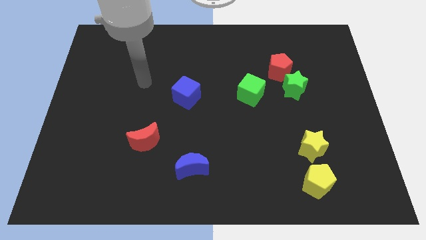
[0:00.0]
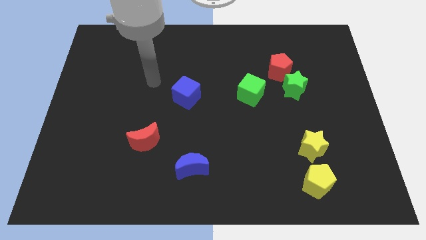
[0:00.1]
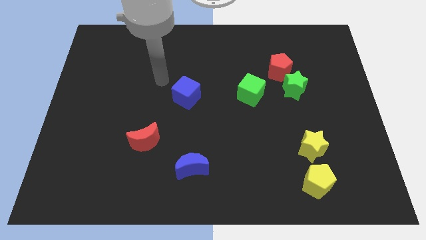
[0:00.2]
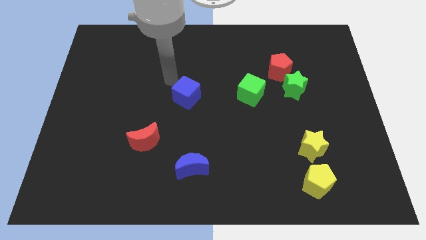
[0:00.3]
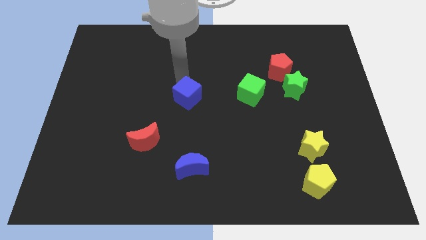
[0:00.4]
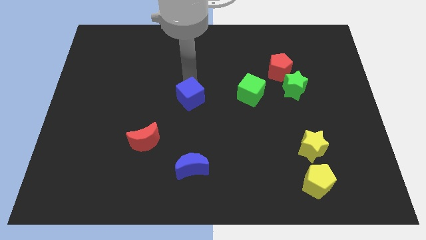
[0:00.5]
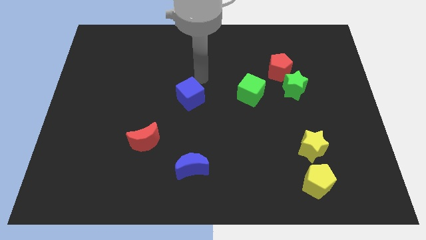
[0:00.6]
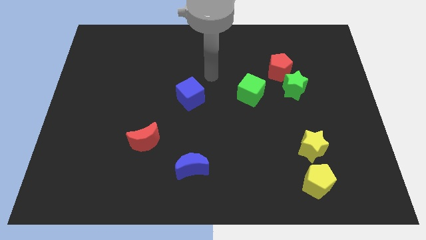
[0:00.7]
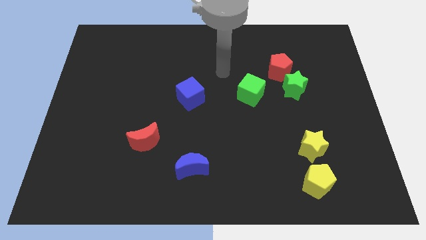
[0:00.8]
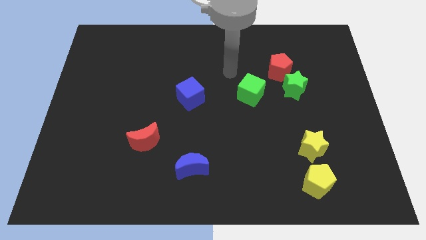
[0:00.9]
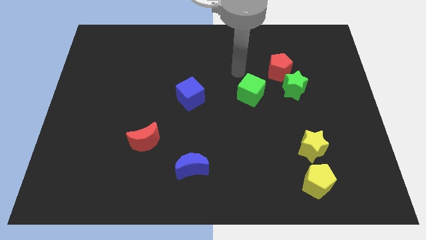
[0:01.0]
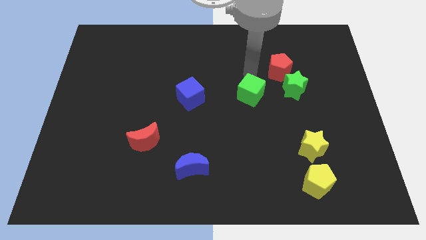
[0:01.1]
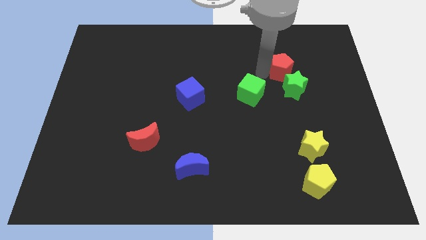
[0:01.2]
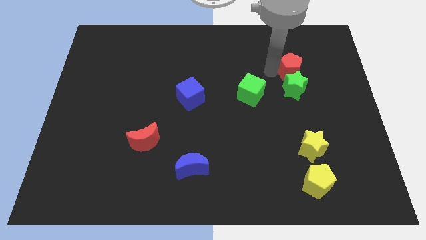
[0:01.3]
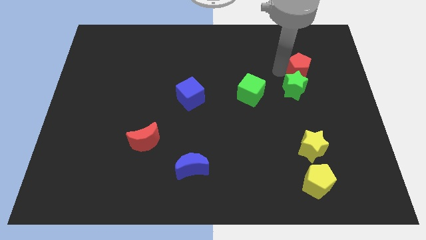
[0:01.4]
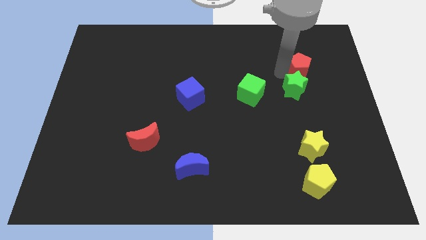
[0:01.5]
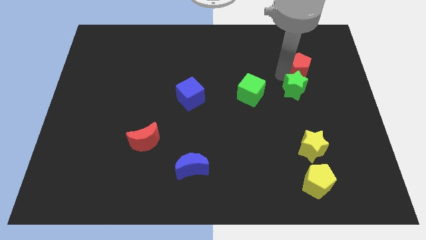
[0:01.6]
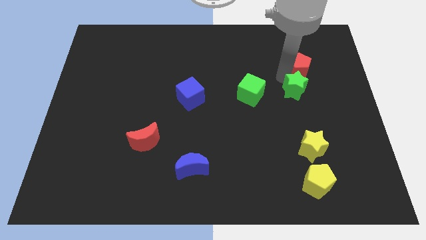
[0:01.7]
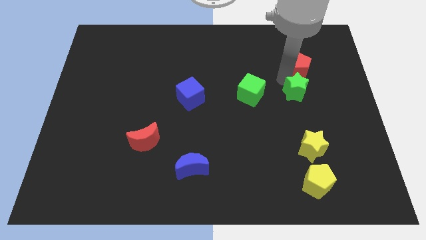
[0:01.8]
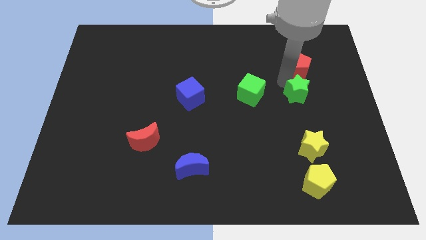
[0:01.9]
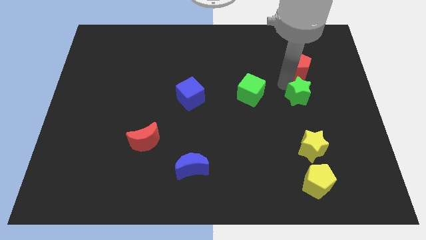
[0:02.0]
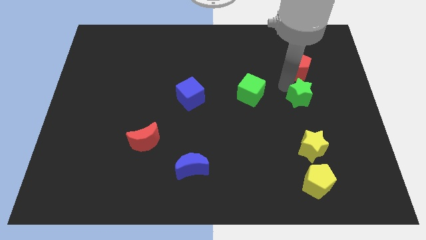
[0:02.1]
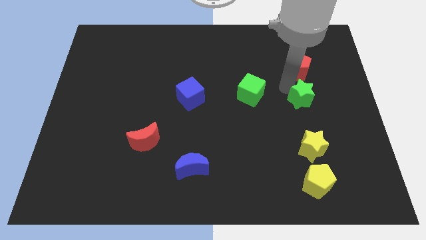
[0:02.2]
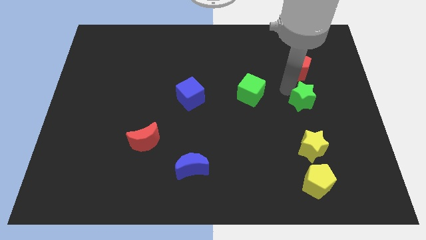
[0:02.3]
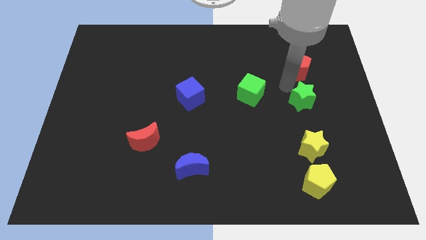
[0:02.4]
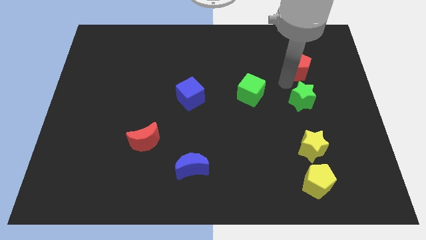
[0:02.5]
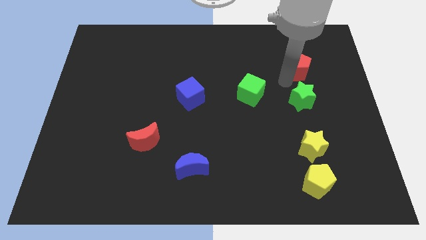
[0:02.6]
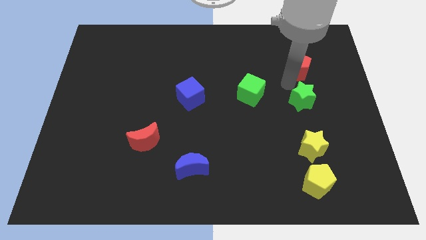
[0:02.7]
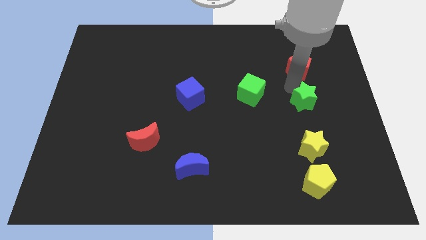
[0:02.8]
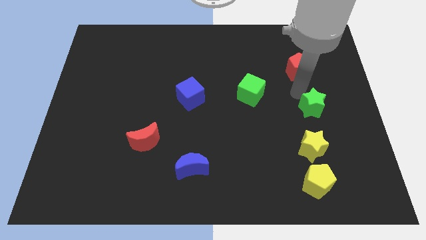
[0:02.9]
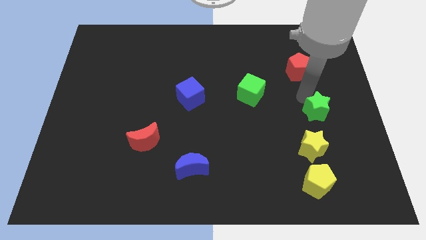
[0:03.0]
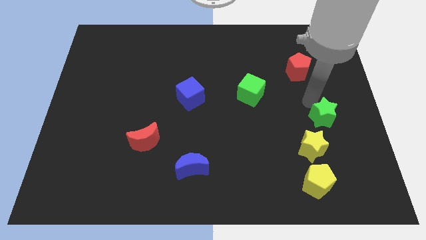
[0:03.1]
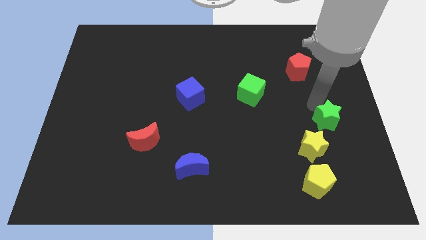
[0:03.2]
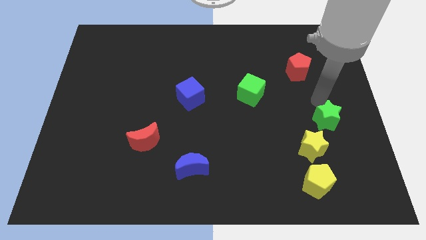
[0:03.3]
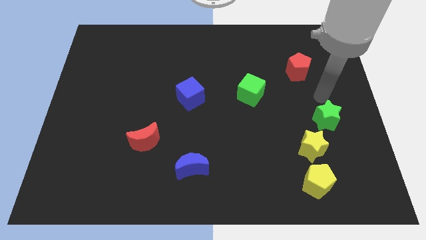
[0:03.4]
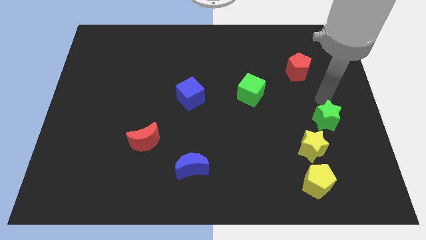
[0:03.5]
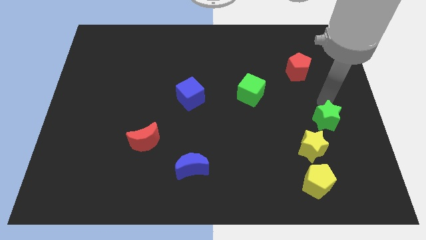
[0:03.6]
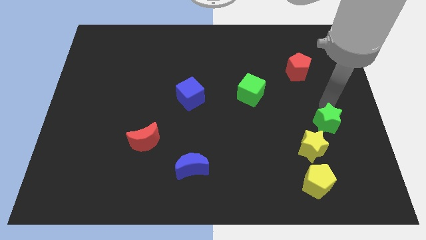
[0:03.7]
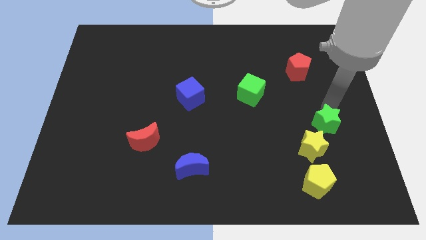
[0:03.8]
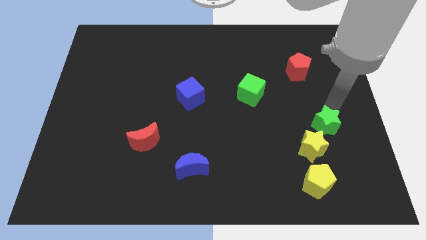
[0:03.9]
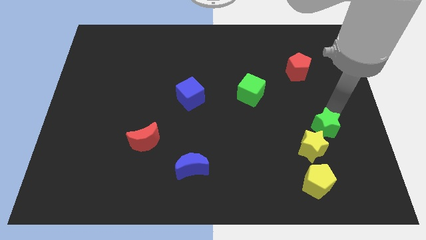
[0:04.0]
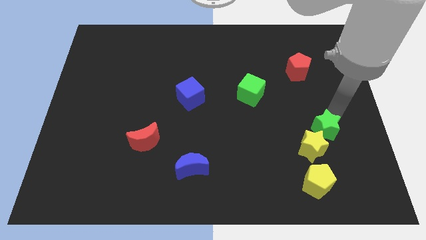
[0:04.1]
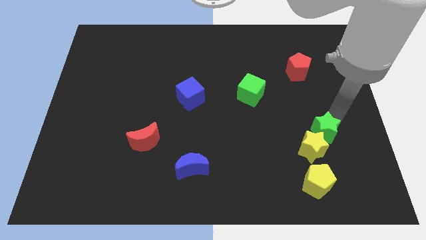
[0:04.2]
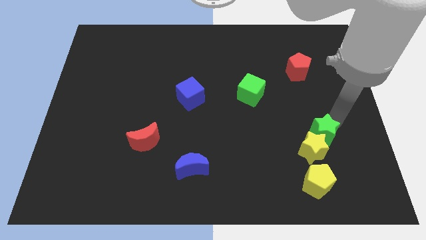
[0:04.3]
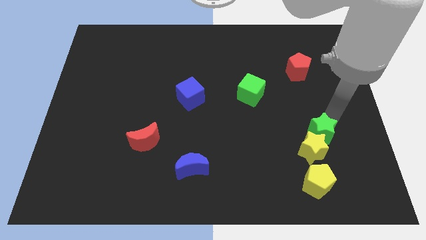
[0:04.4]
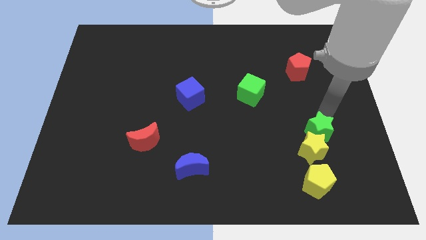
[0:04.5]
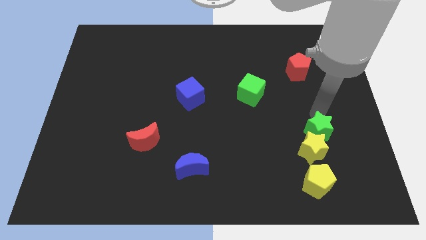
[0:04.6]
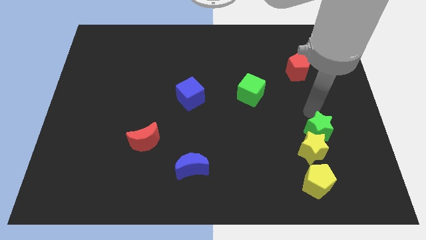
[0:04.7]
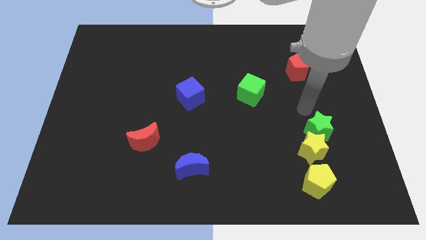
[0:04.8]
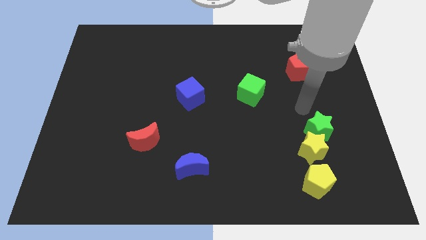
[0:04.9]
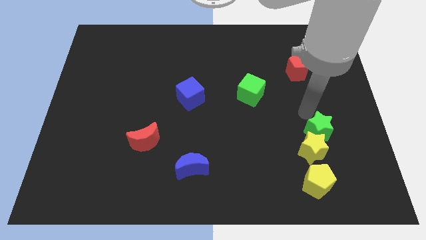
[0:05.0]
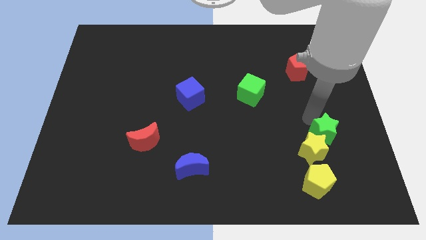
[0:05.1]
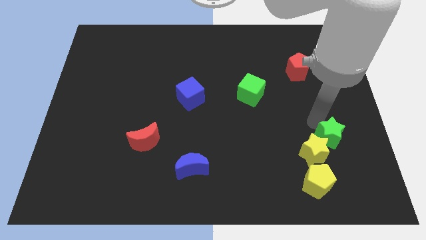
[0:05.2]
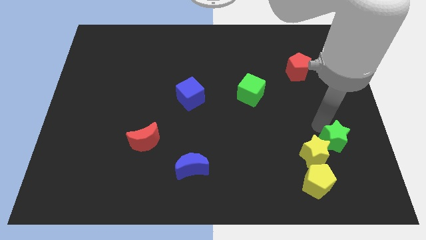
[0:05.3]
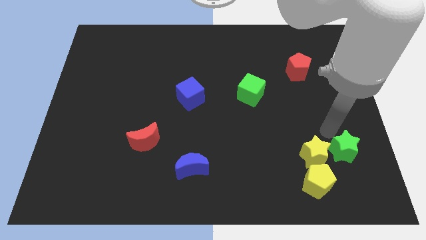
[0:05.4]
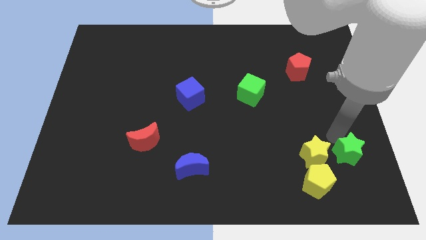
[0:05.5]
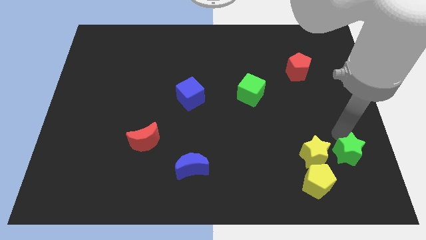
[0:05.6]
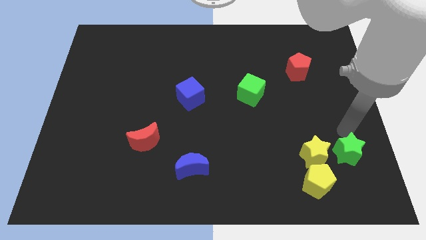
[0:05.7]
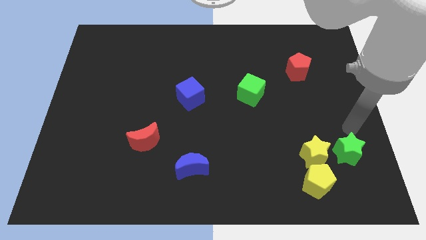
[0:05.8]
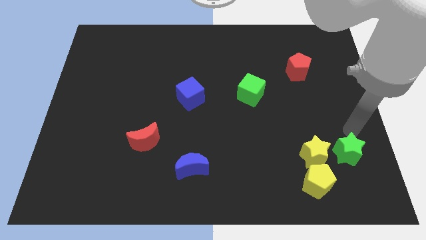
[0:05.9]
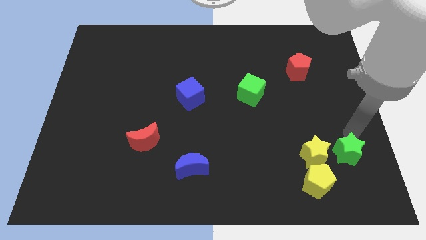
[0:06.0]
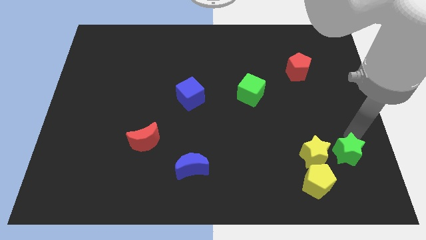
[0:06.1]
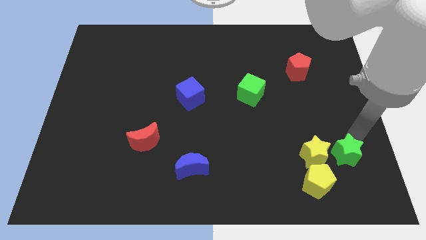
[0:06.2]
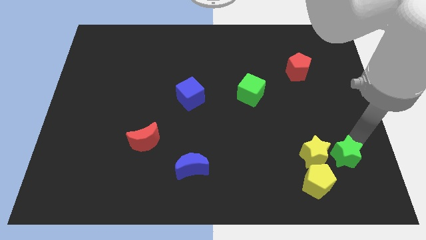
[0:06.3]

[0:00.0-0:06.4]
move the green star to the bottom right of the yellow star

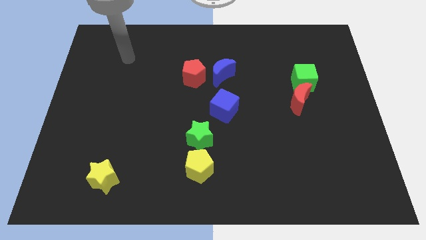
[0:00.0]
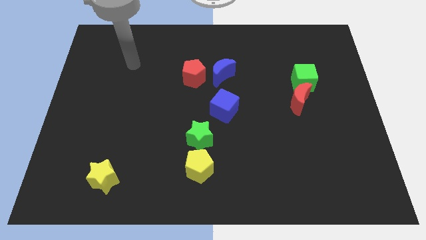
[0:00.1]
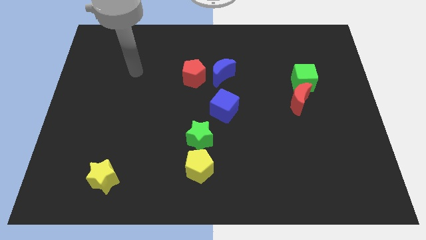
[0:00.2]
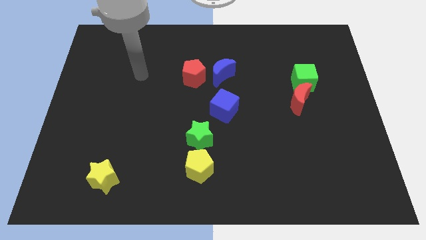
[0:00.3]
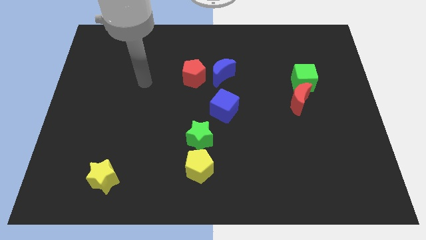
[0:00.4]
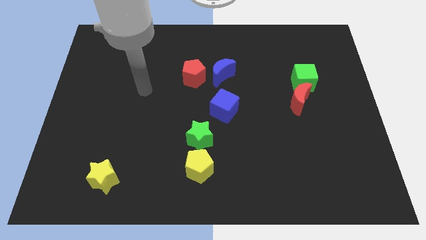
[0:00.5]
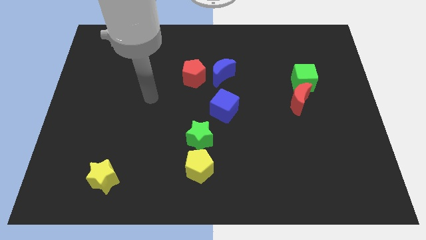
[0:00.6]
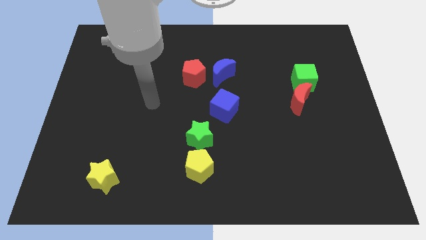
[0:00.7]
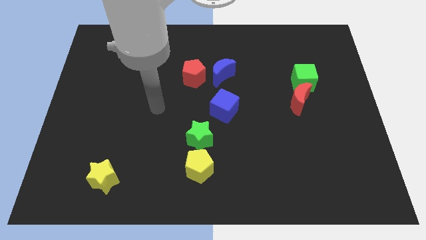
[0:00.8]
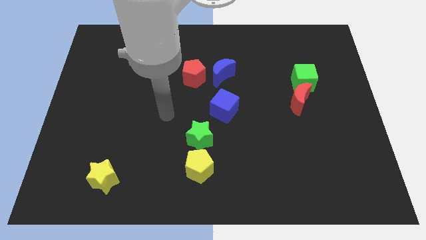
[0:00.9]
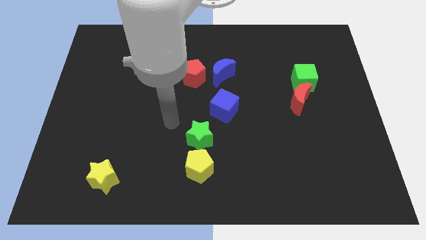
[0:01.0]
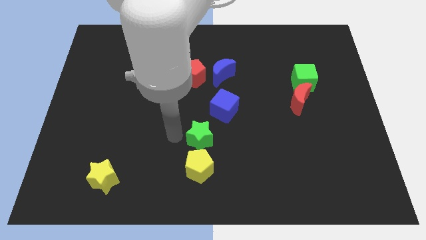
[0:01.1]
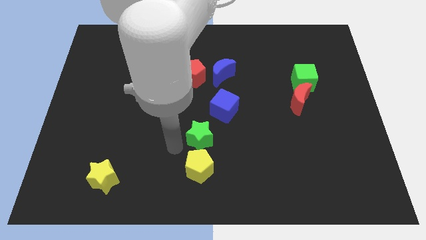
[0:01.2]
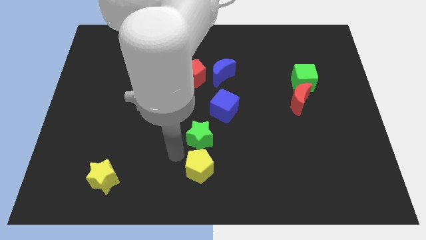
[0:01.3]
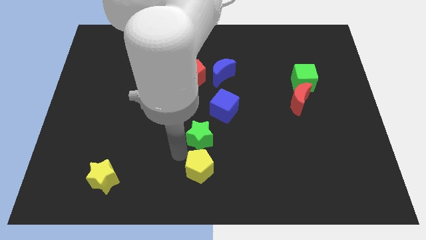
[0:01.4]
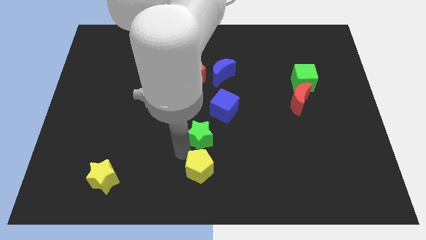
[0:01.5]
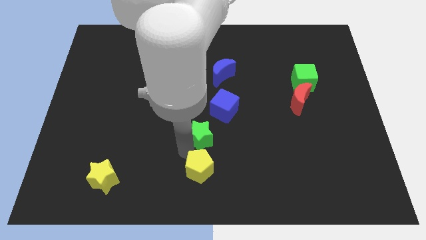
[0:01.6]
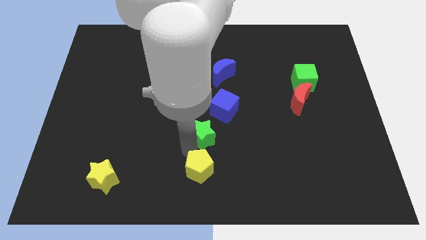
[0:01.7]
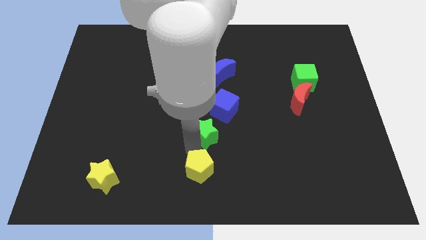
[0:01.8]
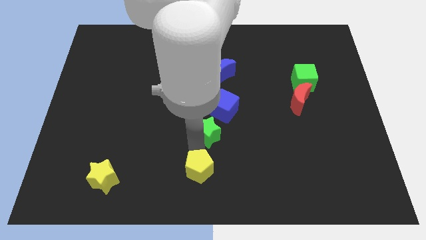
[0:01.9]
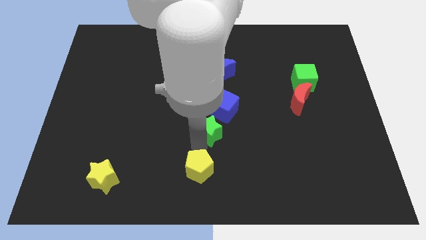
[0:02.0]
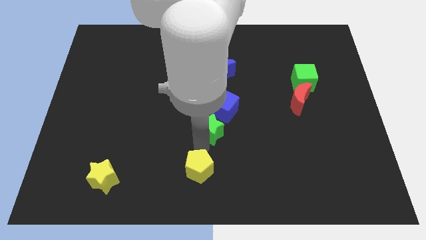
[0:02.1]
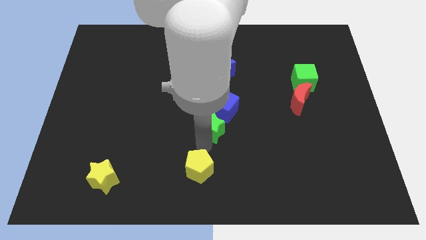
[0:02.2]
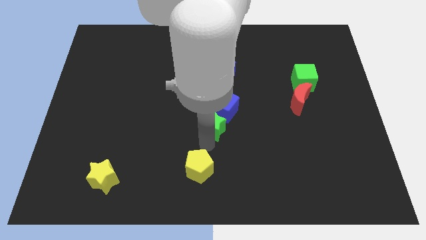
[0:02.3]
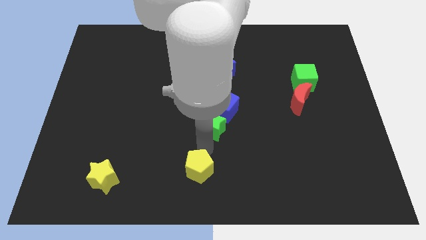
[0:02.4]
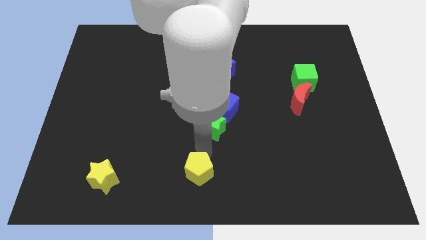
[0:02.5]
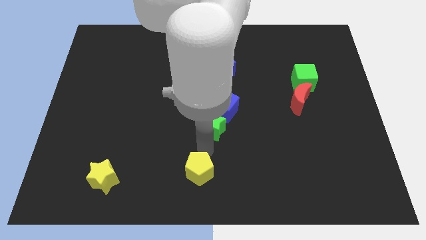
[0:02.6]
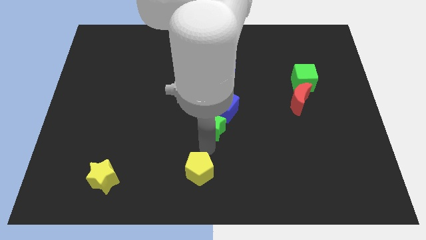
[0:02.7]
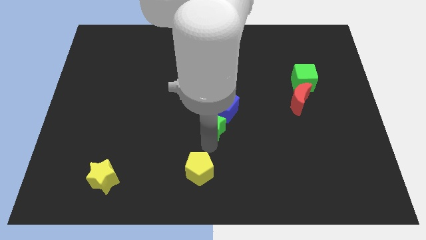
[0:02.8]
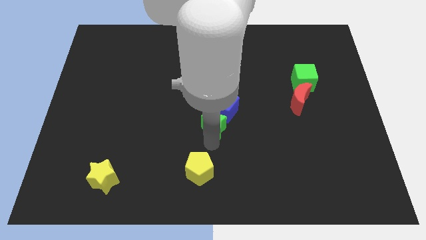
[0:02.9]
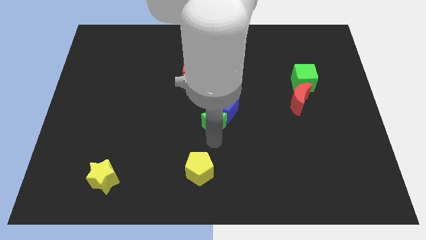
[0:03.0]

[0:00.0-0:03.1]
push the green star below the blue moon
